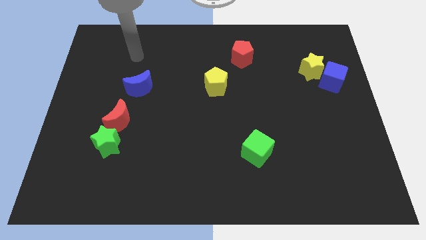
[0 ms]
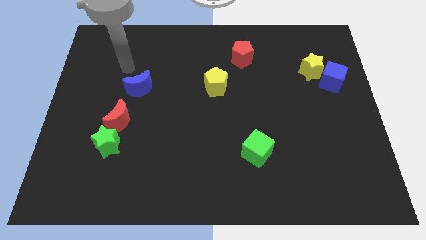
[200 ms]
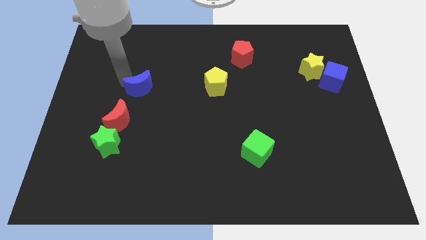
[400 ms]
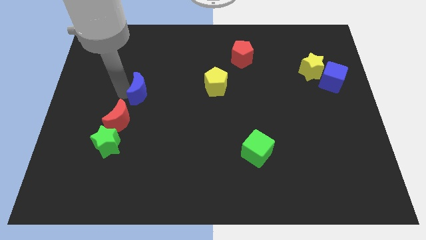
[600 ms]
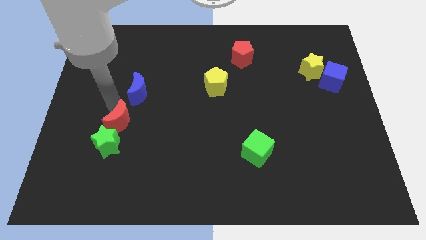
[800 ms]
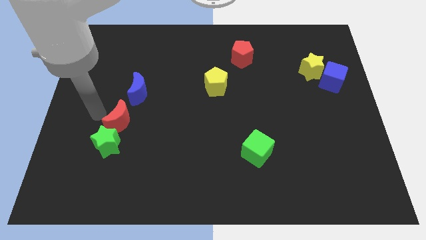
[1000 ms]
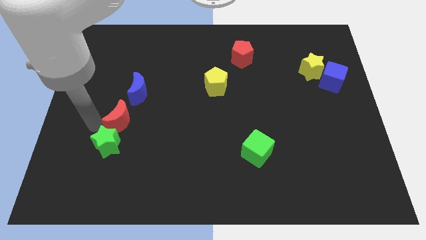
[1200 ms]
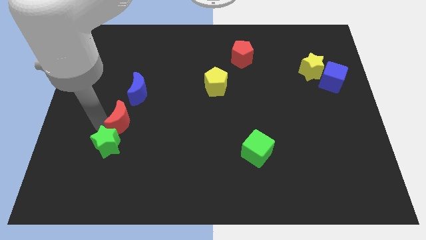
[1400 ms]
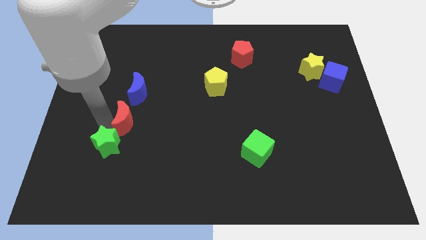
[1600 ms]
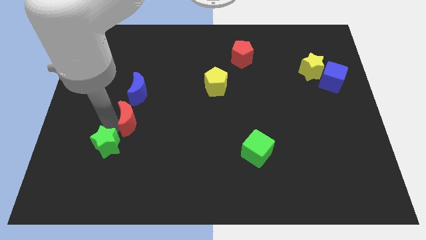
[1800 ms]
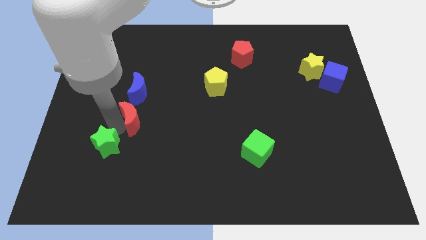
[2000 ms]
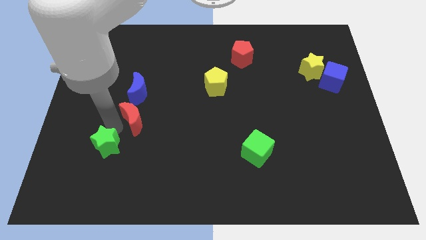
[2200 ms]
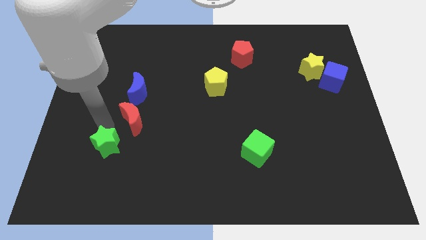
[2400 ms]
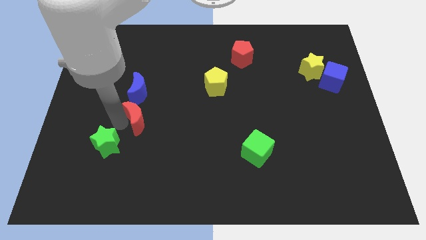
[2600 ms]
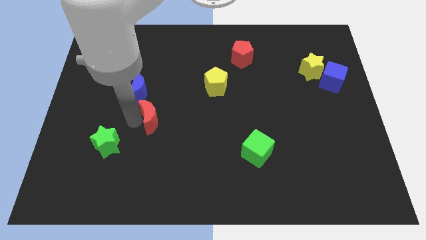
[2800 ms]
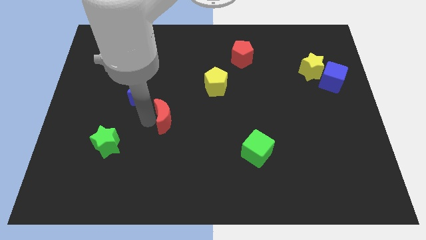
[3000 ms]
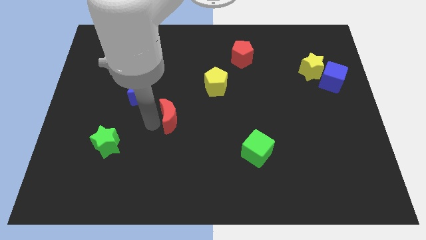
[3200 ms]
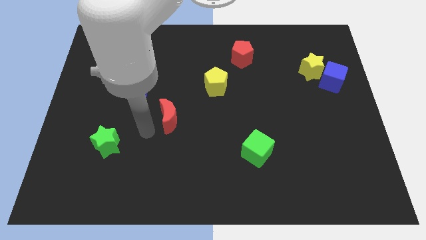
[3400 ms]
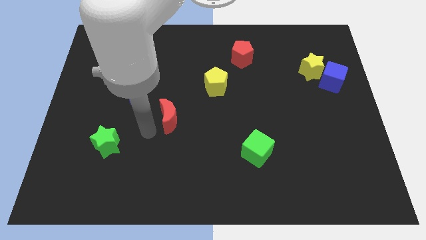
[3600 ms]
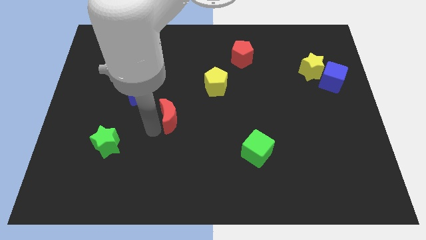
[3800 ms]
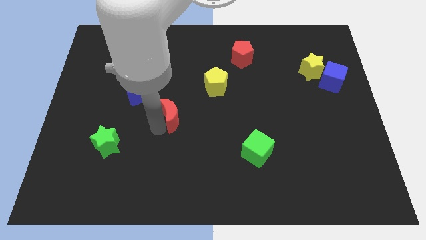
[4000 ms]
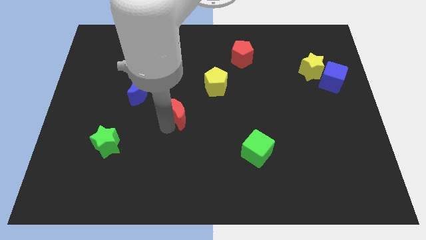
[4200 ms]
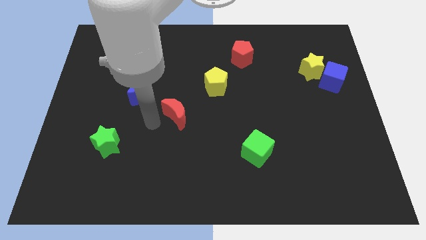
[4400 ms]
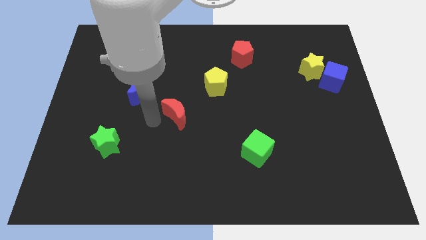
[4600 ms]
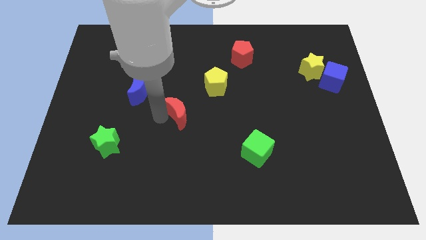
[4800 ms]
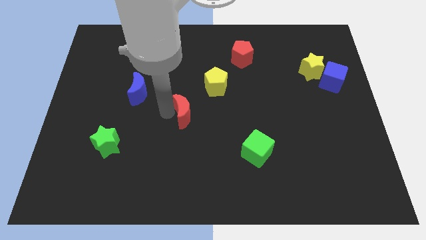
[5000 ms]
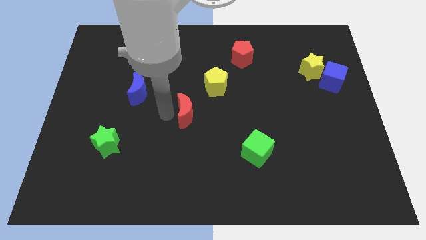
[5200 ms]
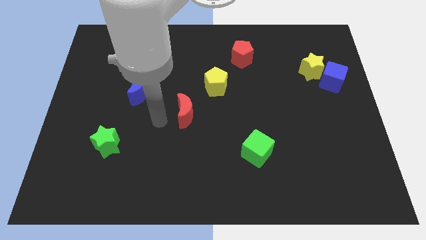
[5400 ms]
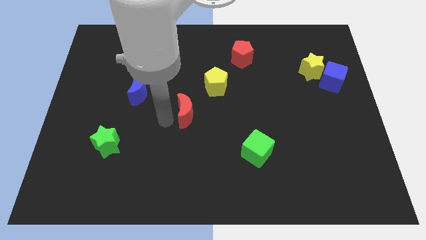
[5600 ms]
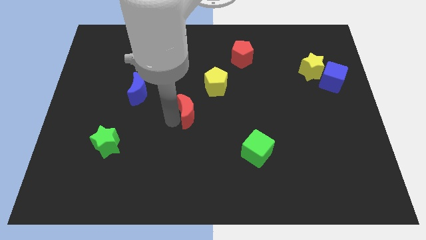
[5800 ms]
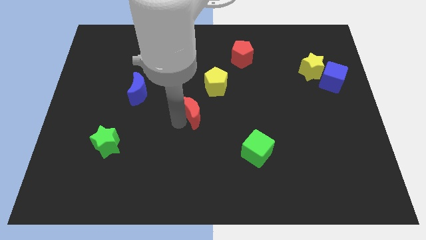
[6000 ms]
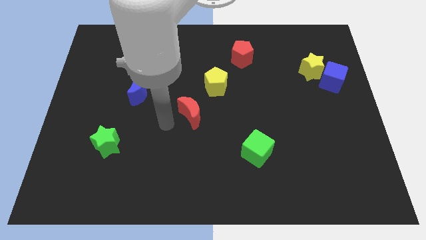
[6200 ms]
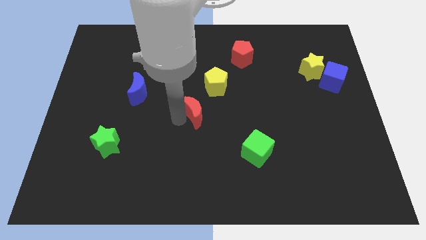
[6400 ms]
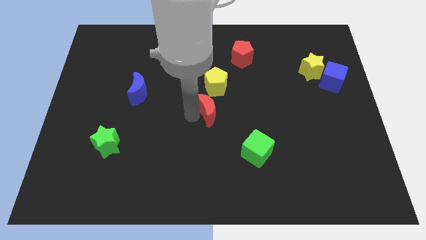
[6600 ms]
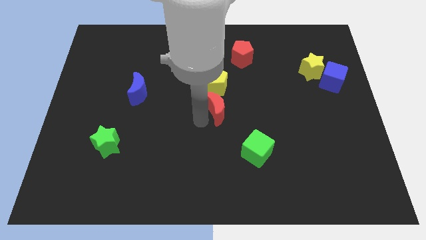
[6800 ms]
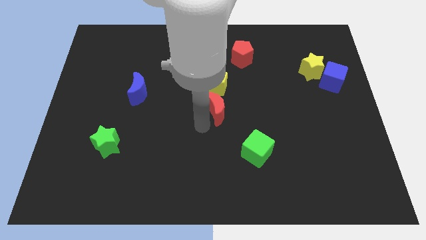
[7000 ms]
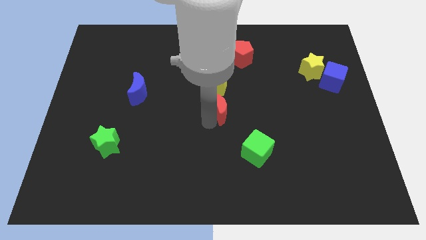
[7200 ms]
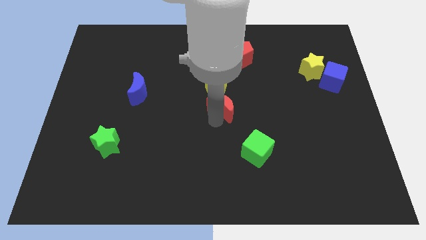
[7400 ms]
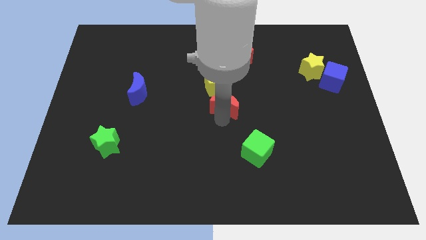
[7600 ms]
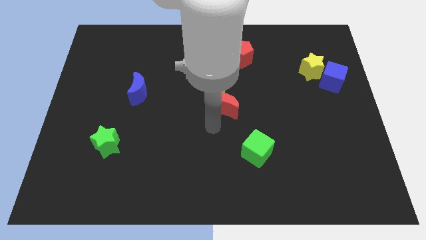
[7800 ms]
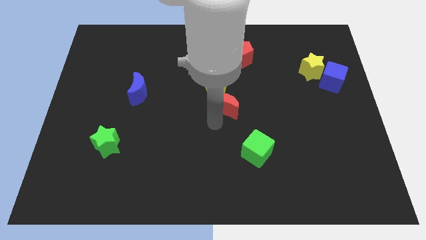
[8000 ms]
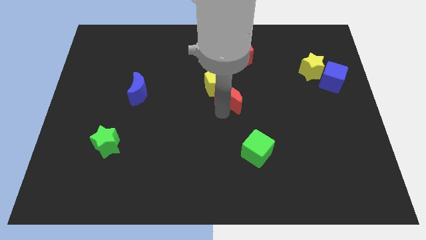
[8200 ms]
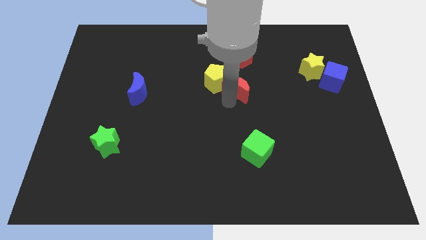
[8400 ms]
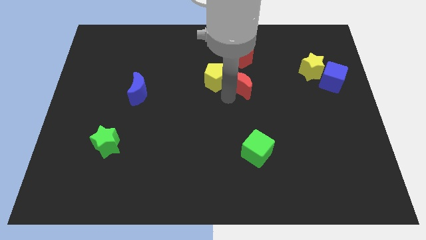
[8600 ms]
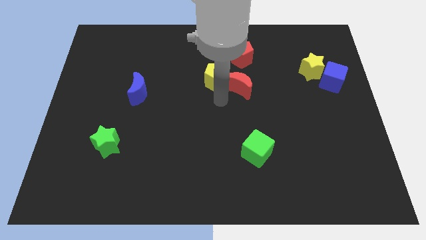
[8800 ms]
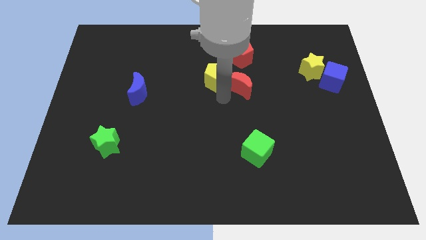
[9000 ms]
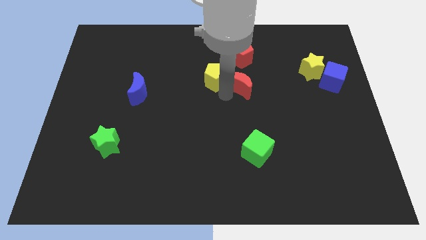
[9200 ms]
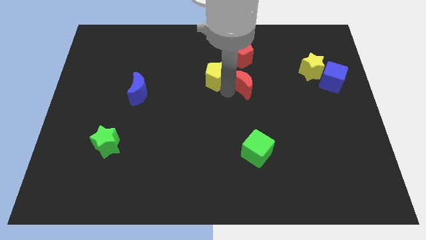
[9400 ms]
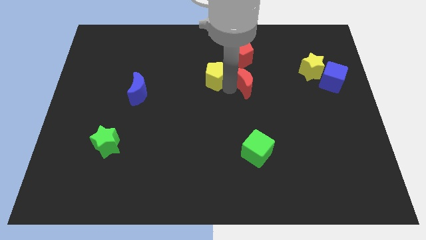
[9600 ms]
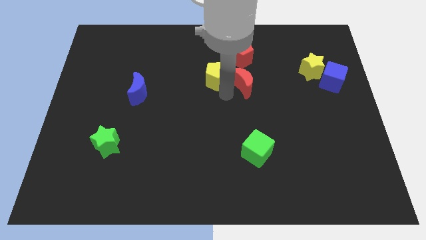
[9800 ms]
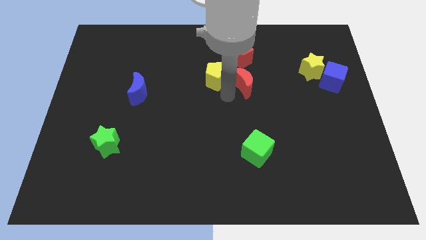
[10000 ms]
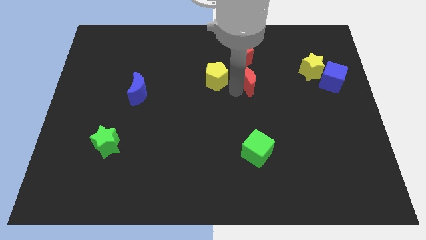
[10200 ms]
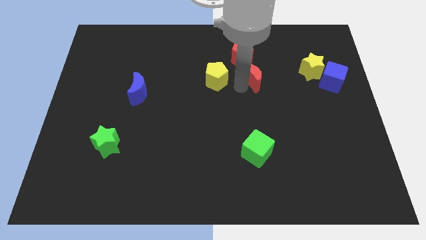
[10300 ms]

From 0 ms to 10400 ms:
put the red moon diagonally down and to the right of the red pentagon

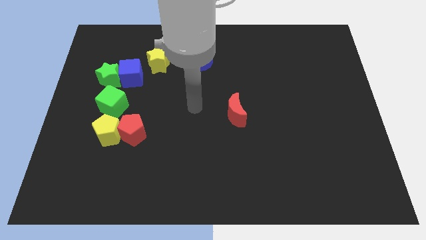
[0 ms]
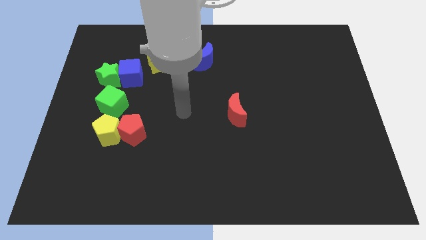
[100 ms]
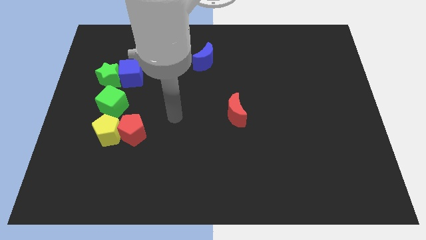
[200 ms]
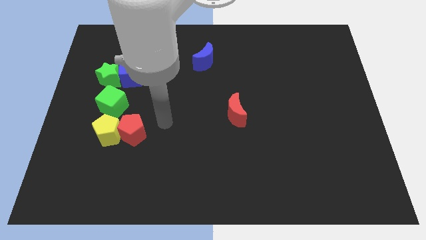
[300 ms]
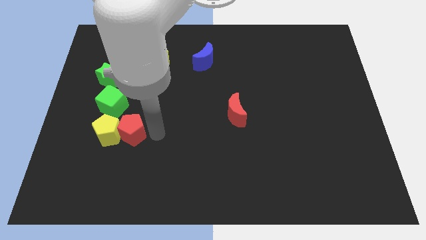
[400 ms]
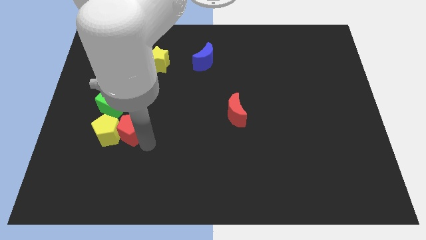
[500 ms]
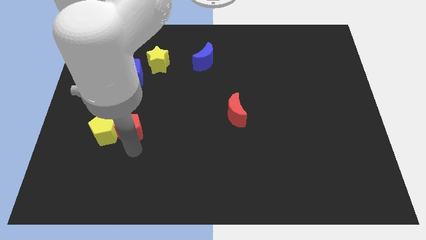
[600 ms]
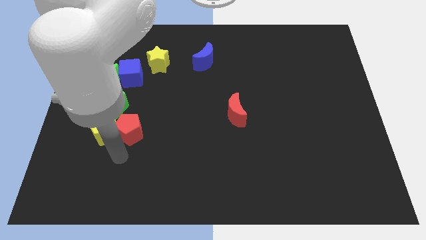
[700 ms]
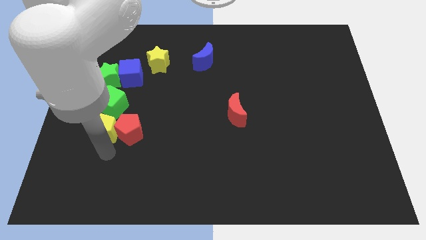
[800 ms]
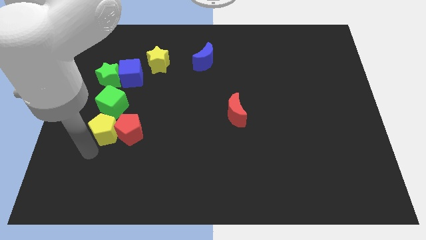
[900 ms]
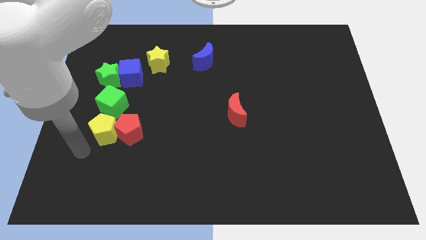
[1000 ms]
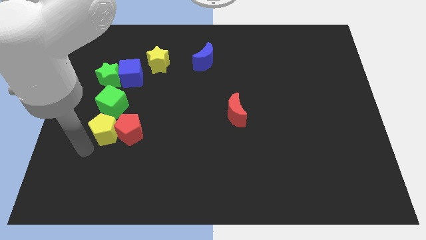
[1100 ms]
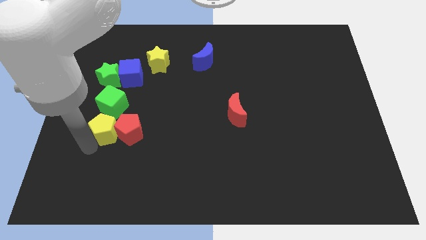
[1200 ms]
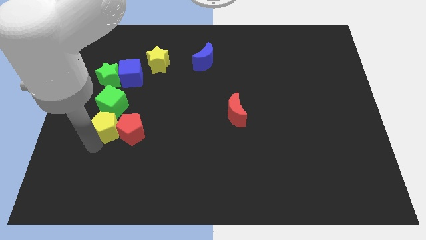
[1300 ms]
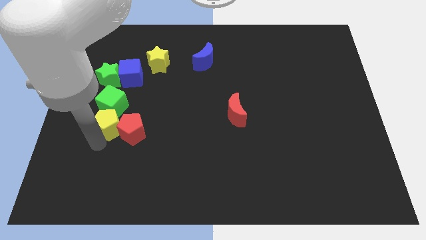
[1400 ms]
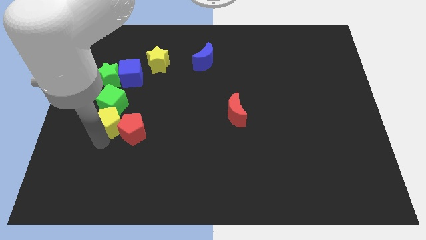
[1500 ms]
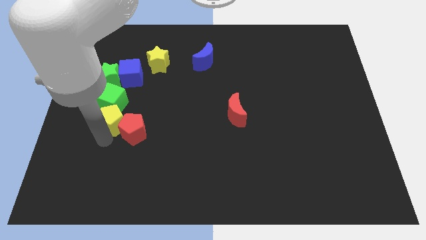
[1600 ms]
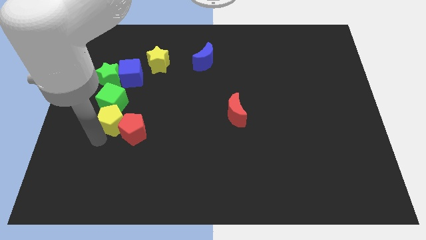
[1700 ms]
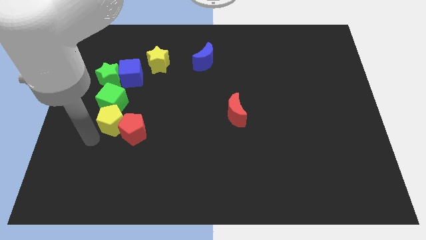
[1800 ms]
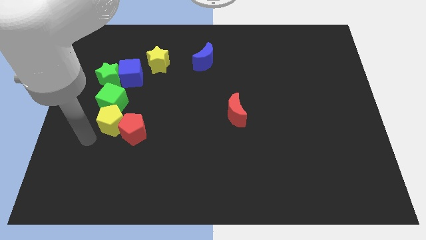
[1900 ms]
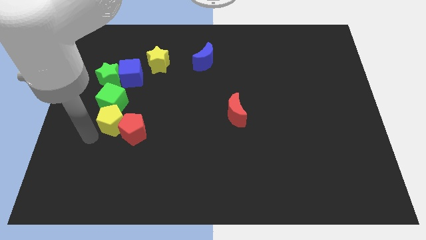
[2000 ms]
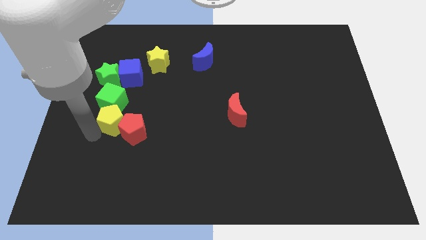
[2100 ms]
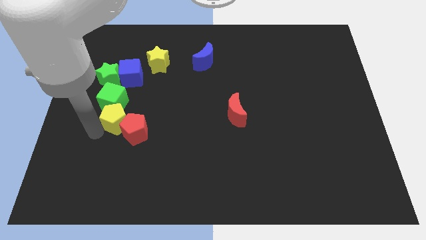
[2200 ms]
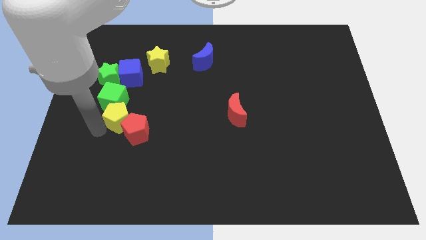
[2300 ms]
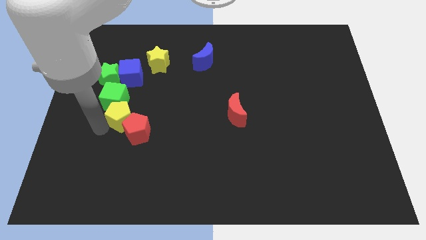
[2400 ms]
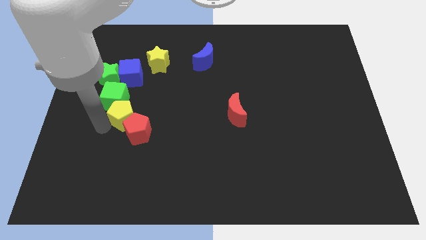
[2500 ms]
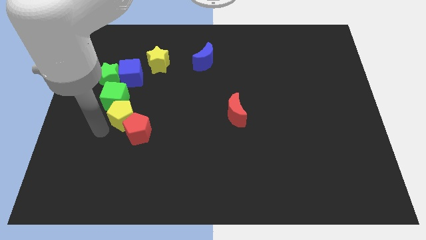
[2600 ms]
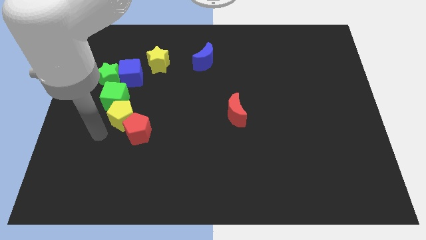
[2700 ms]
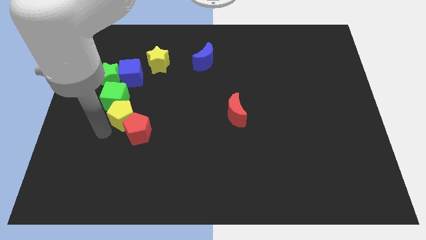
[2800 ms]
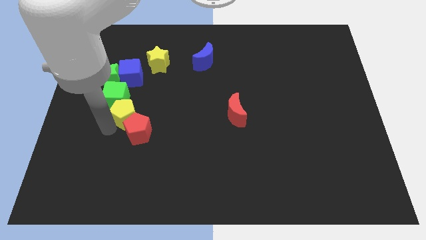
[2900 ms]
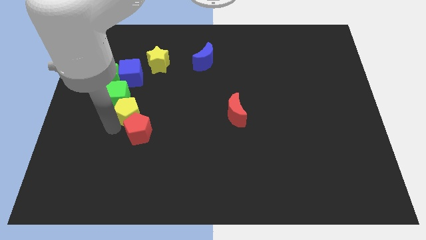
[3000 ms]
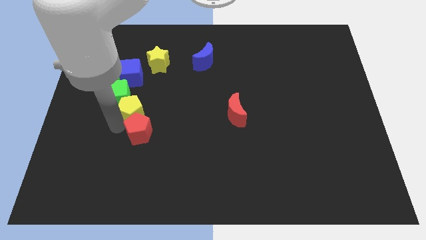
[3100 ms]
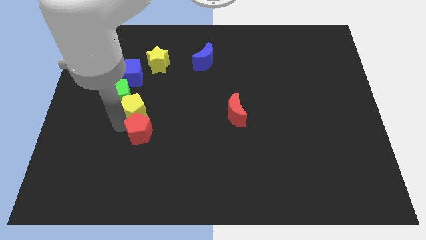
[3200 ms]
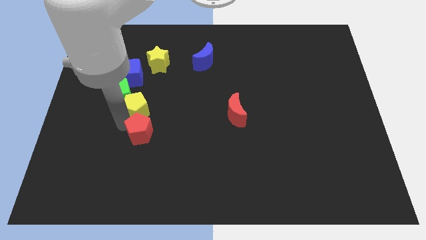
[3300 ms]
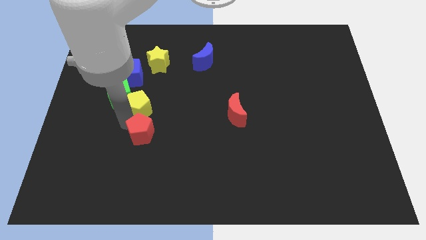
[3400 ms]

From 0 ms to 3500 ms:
slide the yellow pentagon below the yellow star
